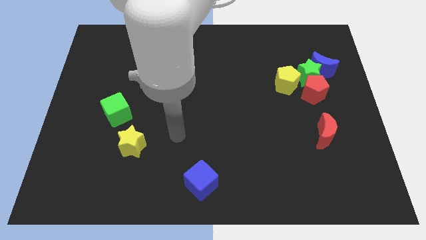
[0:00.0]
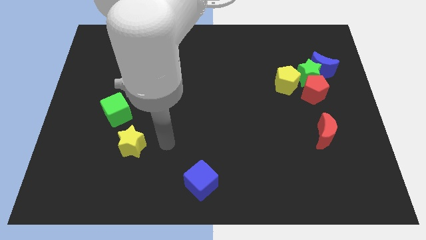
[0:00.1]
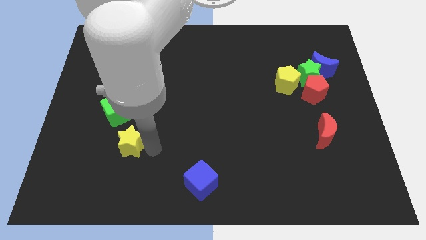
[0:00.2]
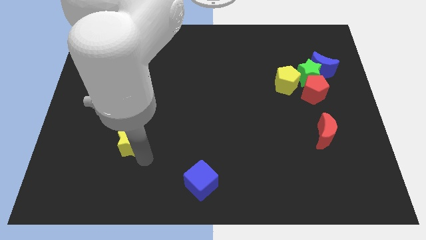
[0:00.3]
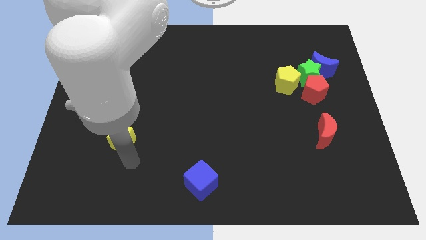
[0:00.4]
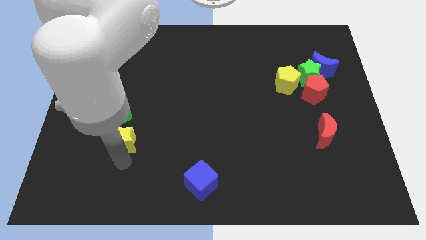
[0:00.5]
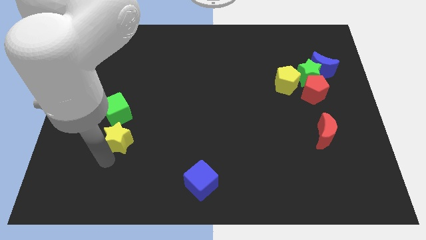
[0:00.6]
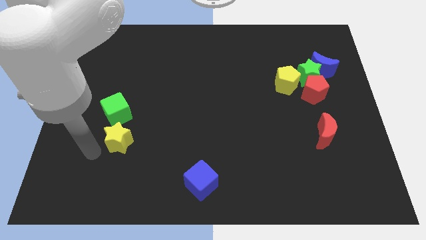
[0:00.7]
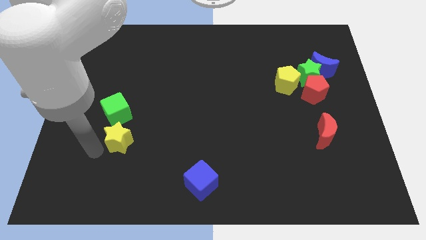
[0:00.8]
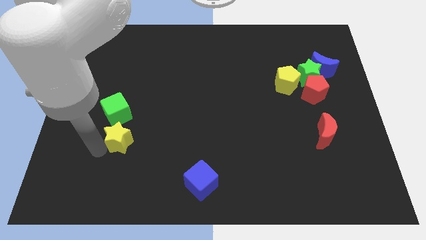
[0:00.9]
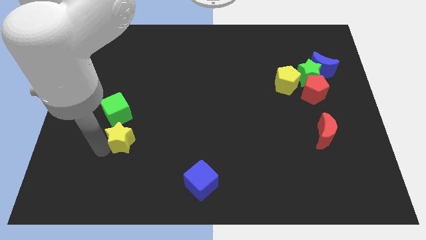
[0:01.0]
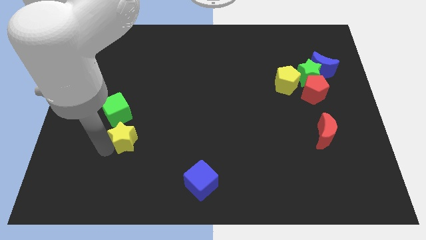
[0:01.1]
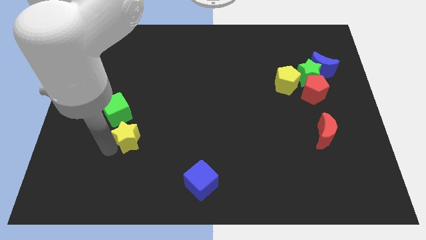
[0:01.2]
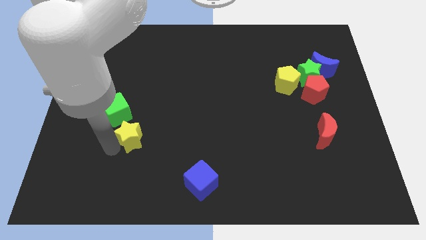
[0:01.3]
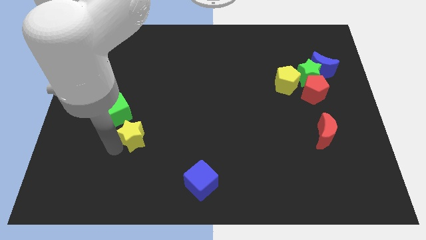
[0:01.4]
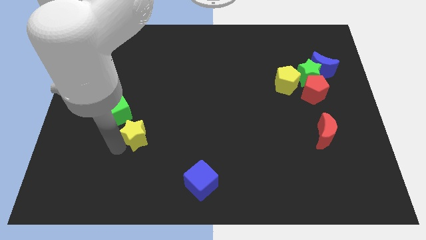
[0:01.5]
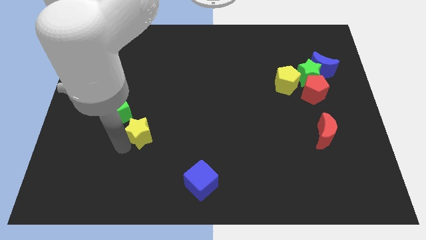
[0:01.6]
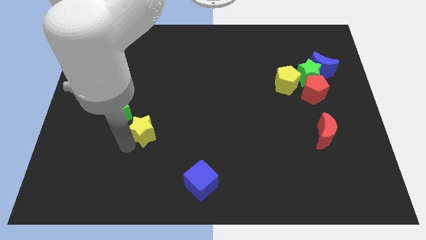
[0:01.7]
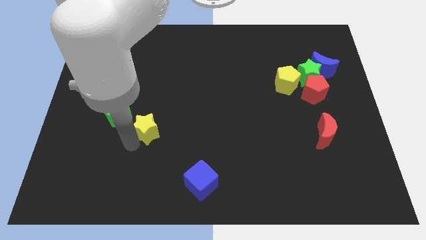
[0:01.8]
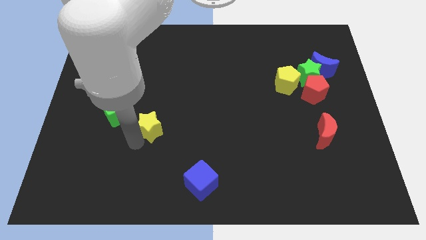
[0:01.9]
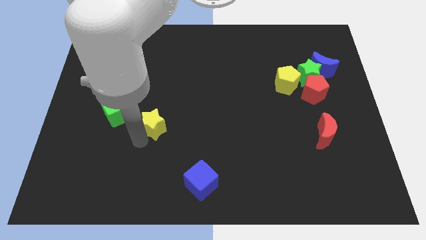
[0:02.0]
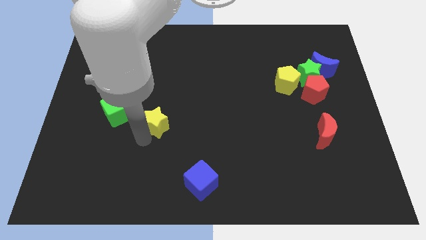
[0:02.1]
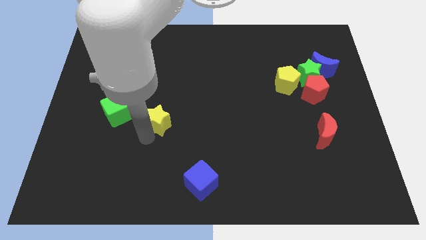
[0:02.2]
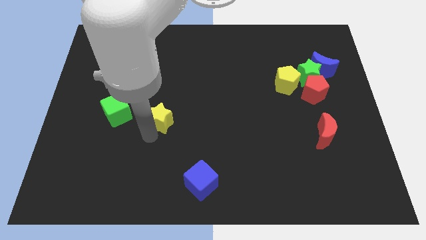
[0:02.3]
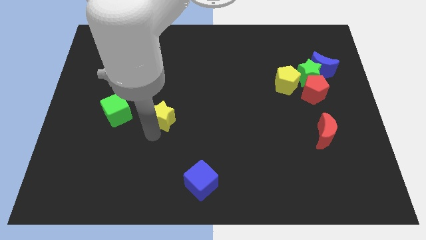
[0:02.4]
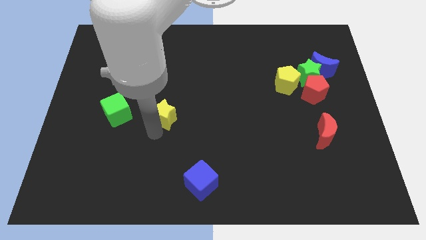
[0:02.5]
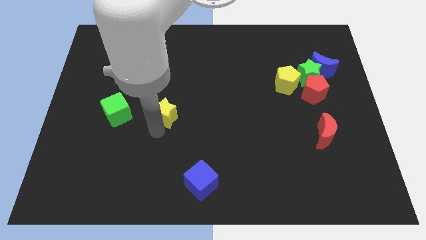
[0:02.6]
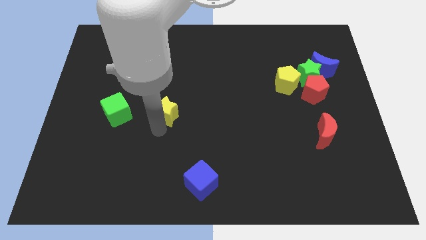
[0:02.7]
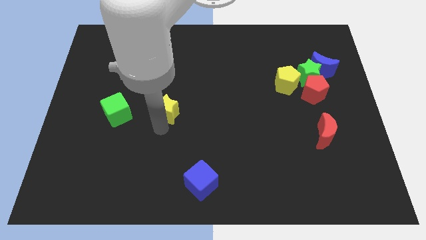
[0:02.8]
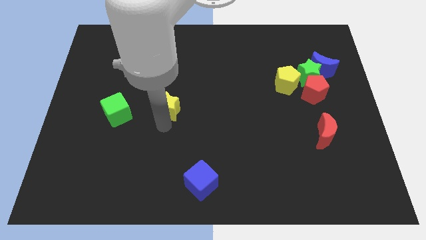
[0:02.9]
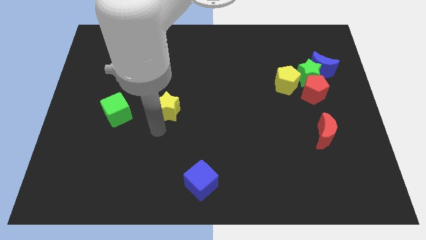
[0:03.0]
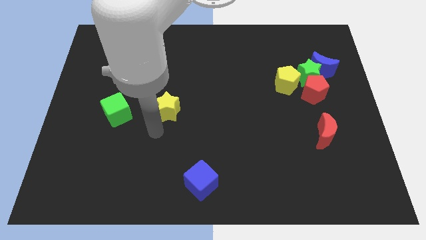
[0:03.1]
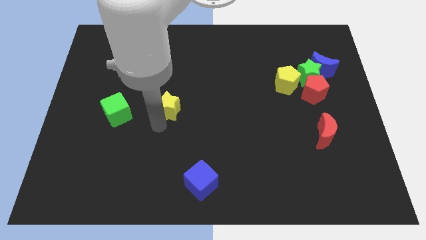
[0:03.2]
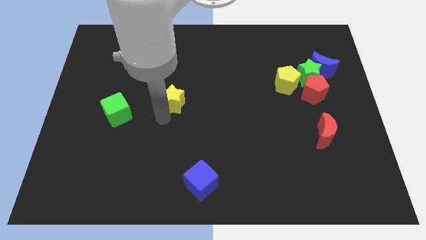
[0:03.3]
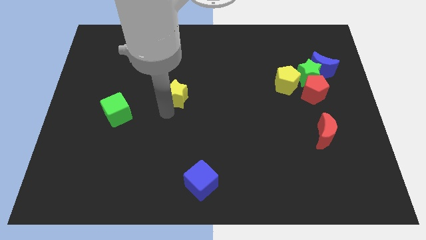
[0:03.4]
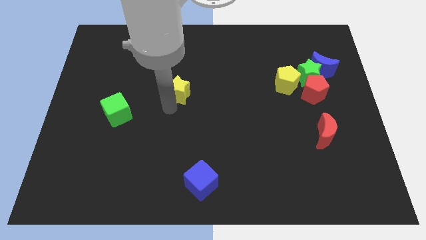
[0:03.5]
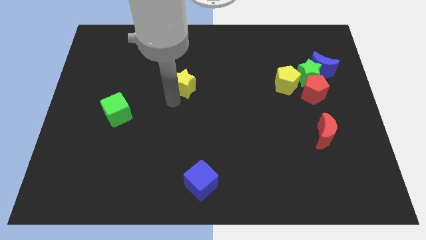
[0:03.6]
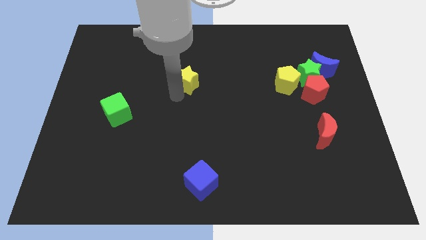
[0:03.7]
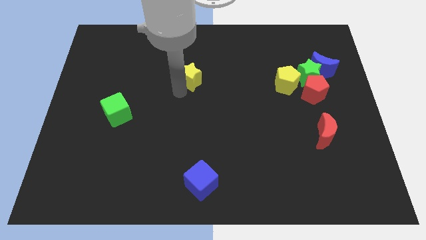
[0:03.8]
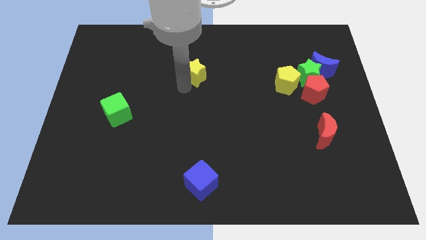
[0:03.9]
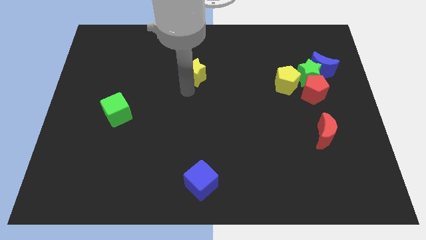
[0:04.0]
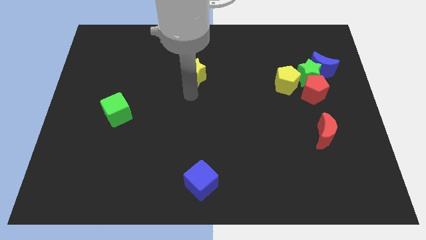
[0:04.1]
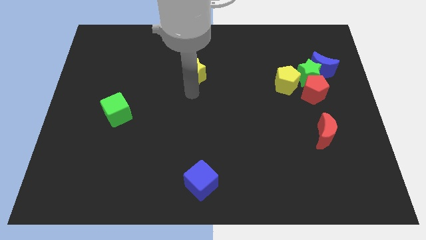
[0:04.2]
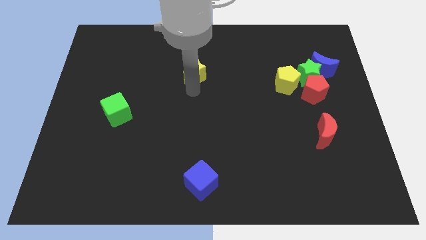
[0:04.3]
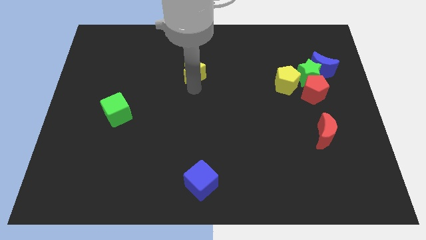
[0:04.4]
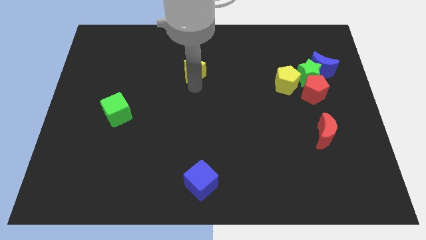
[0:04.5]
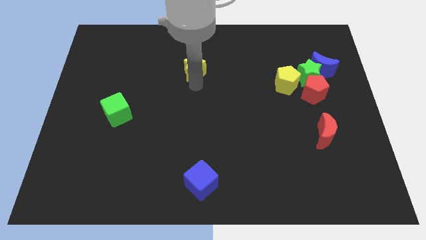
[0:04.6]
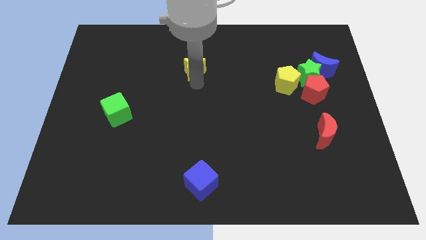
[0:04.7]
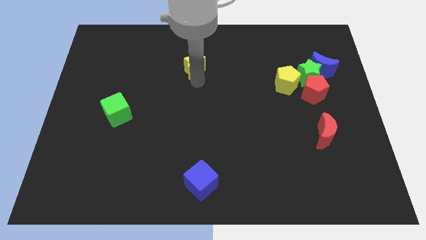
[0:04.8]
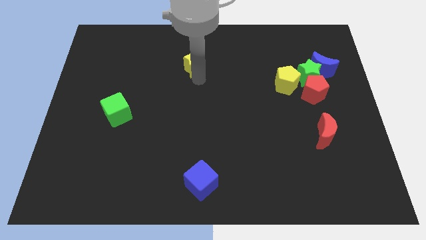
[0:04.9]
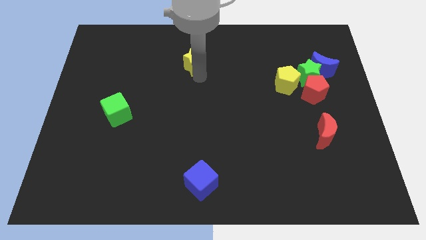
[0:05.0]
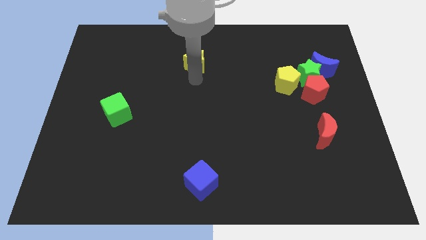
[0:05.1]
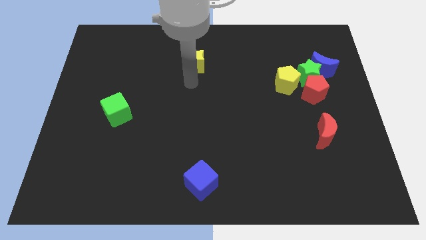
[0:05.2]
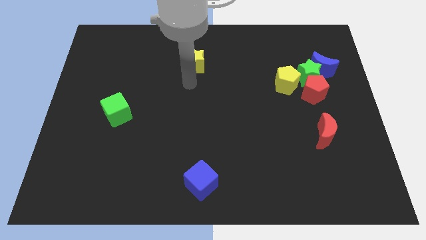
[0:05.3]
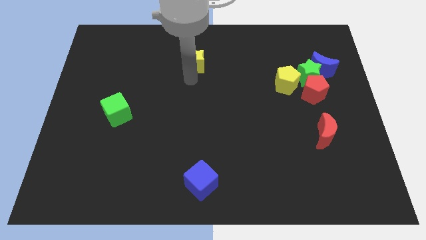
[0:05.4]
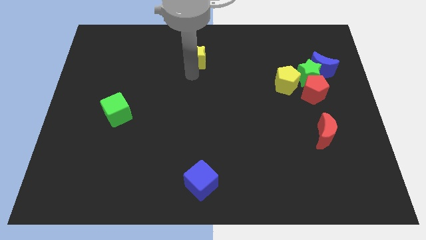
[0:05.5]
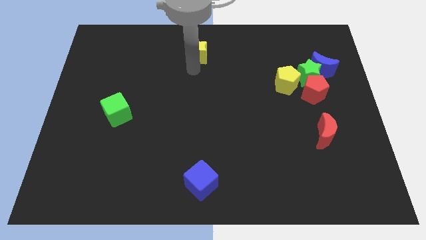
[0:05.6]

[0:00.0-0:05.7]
put the yellow star to the top
